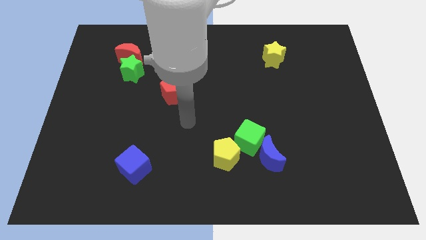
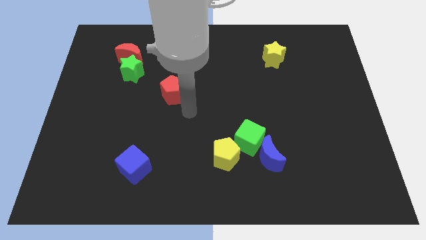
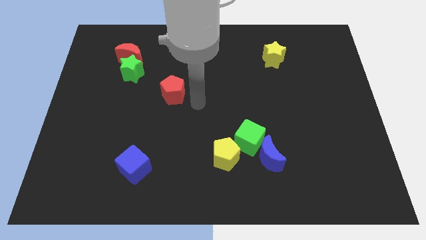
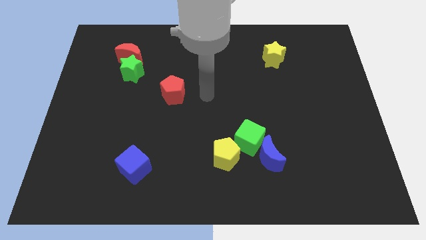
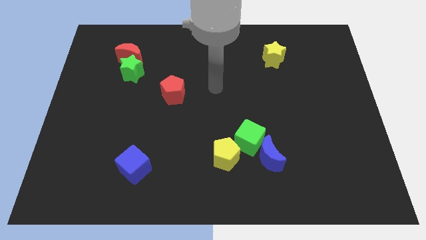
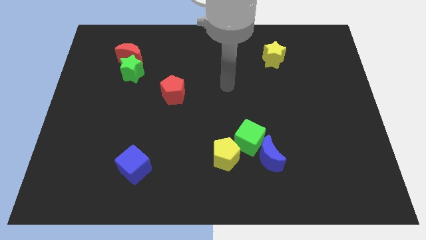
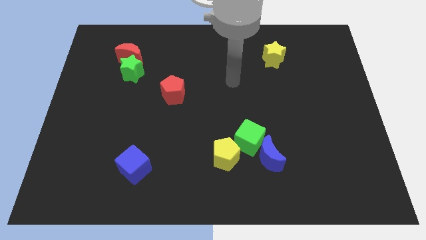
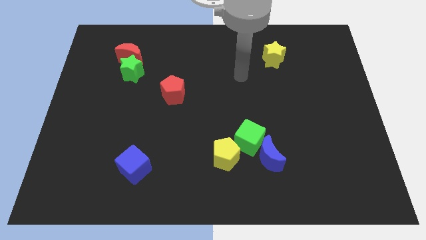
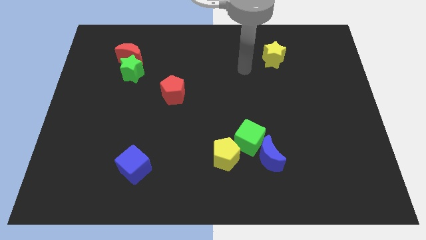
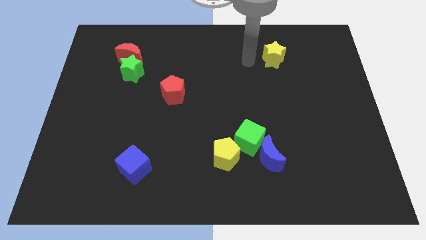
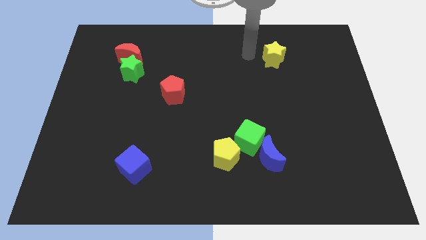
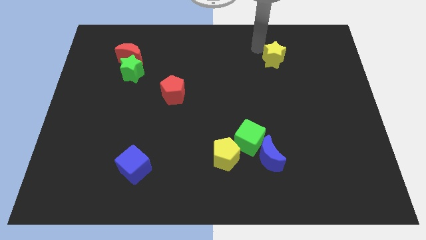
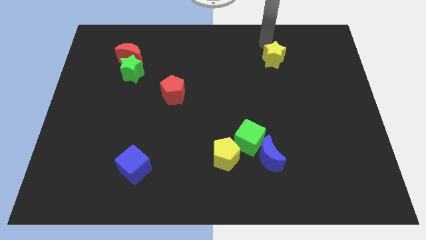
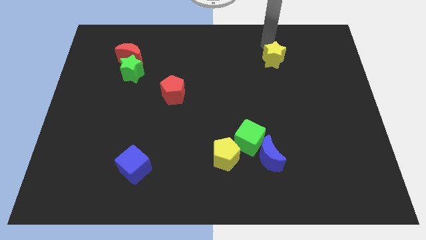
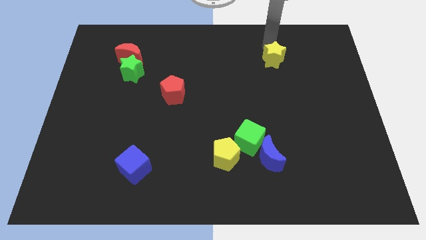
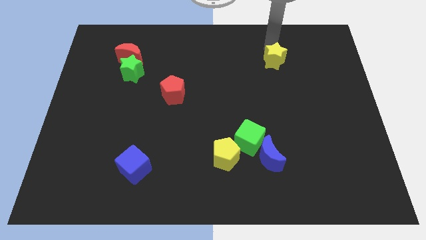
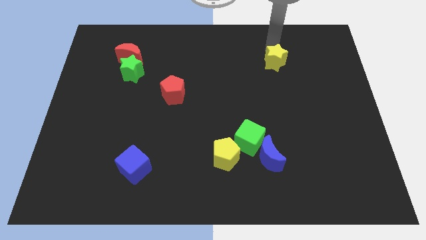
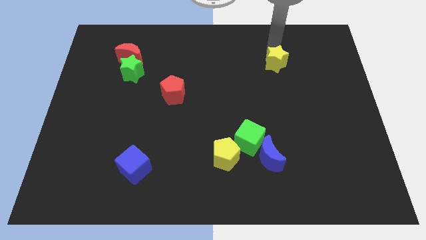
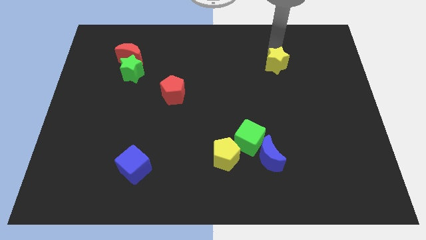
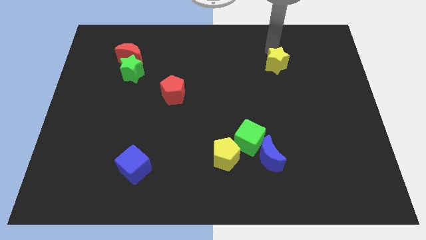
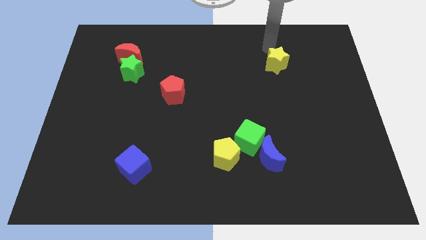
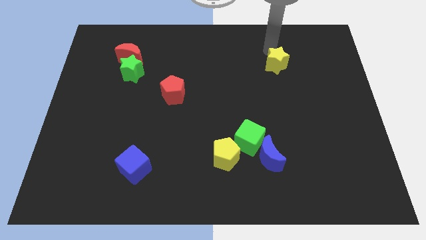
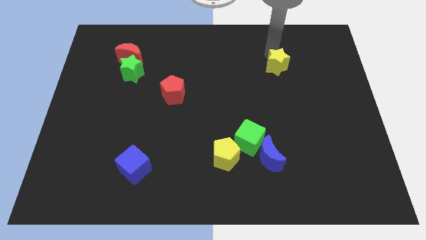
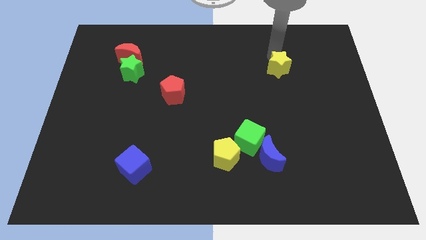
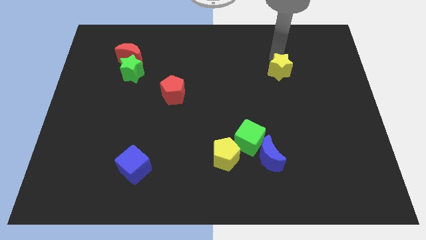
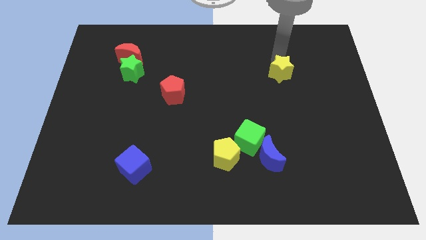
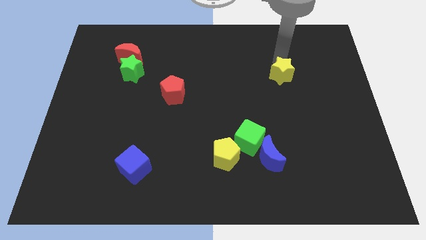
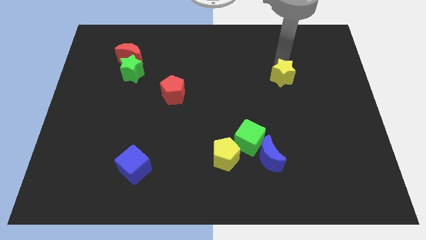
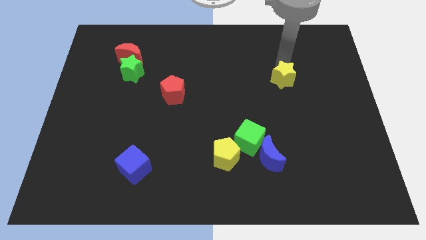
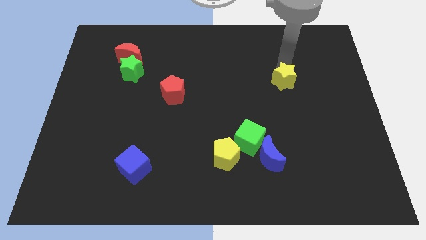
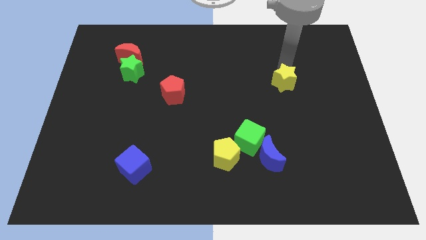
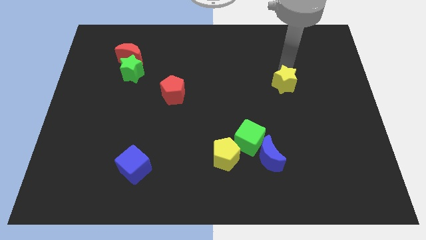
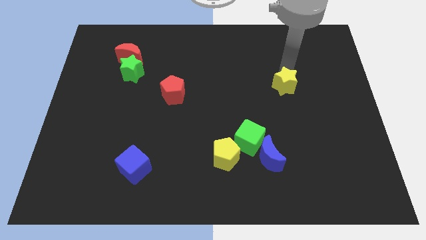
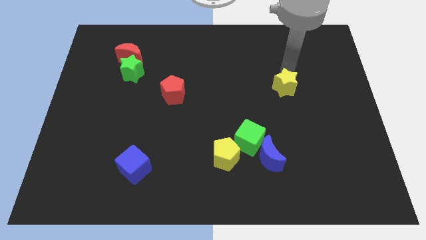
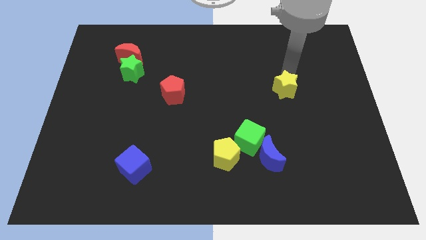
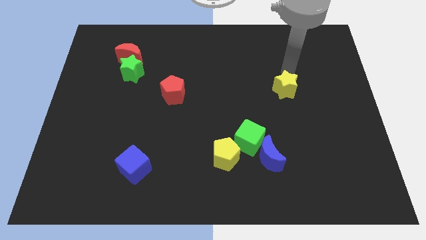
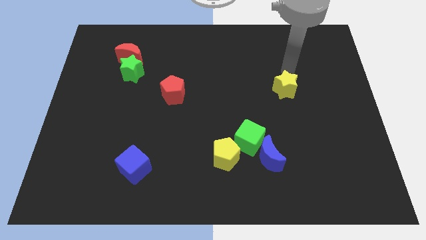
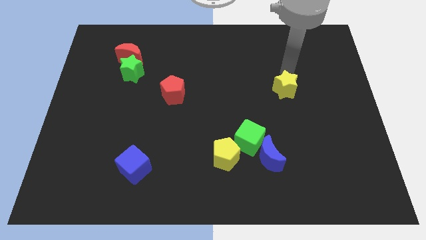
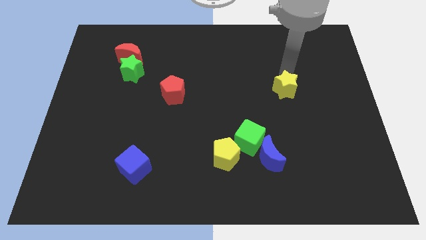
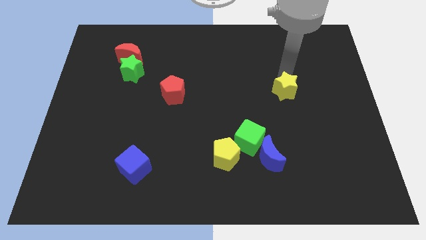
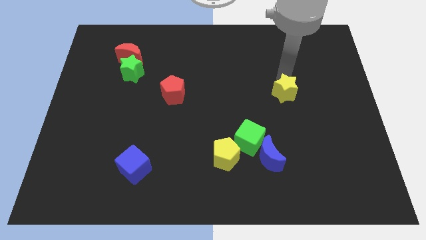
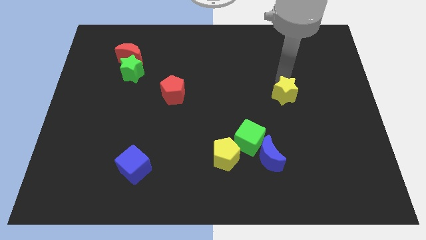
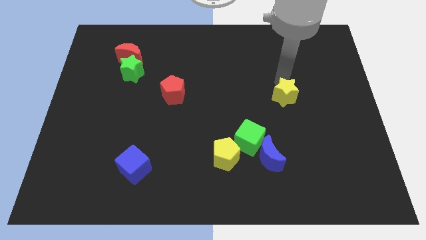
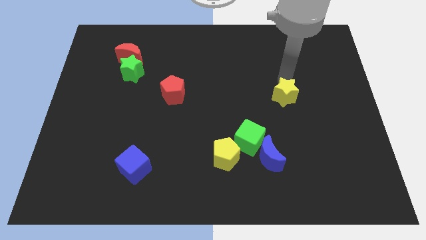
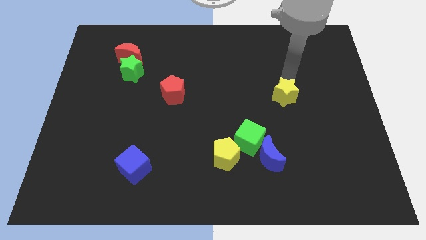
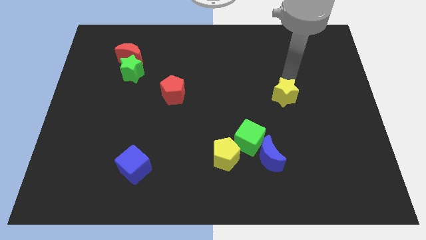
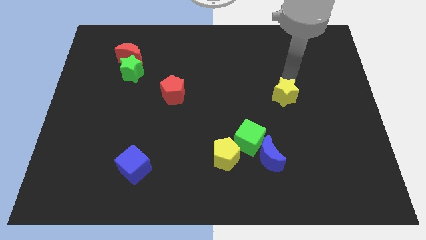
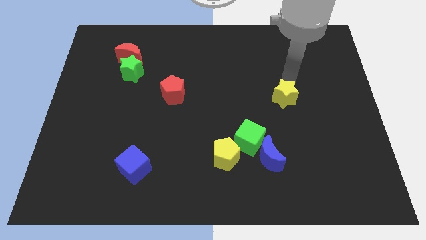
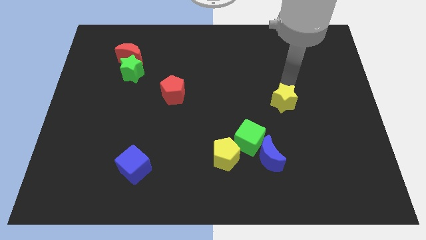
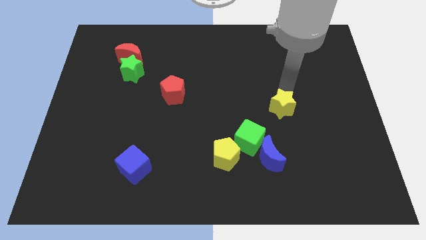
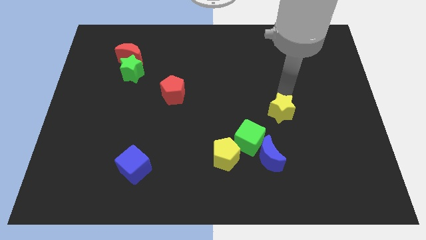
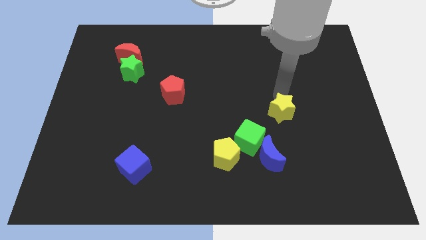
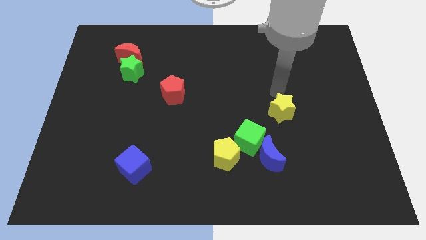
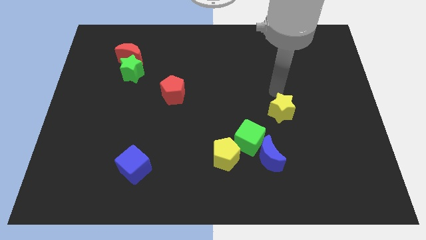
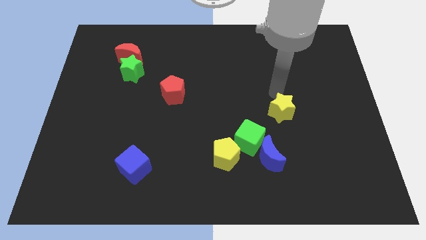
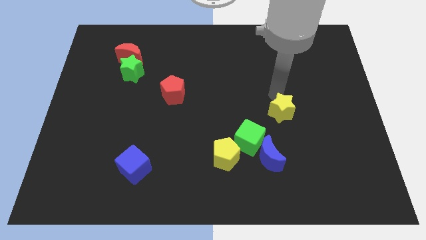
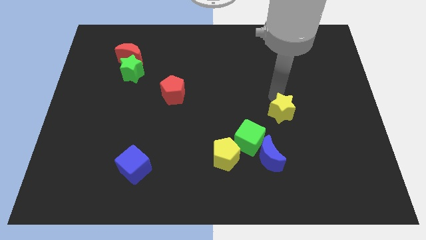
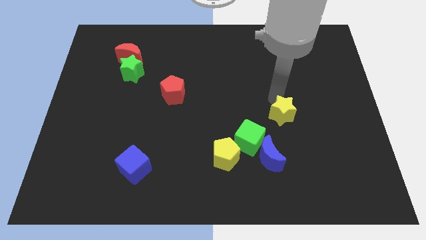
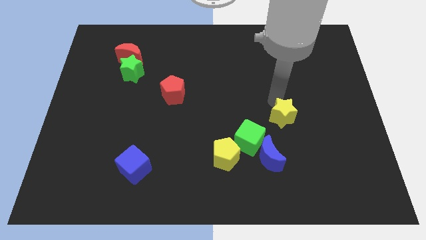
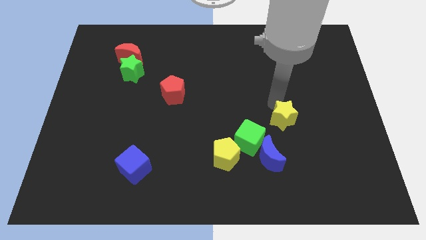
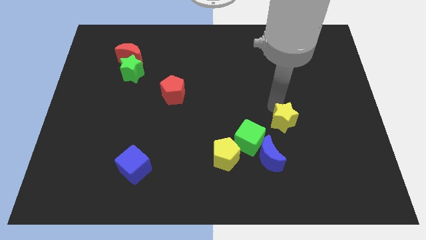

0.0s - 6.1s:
move the yellow star down

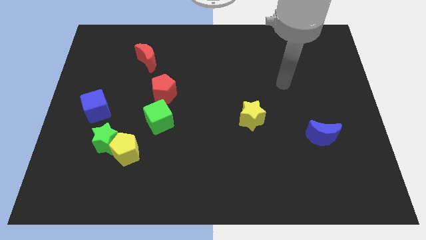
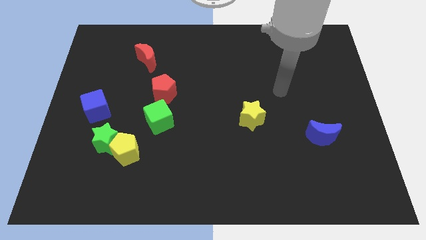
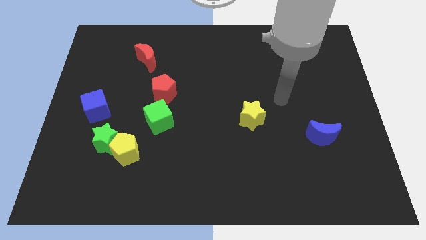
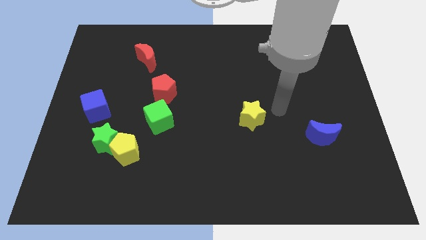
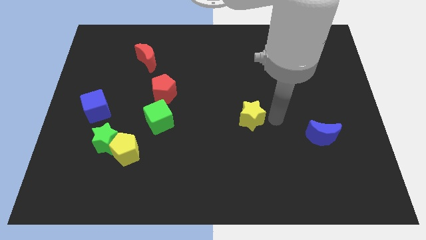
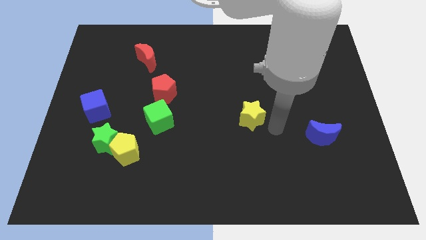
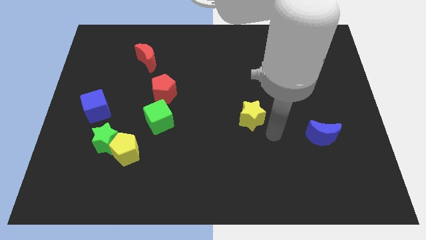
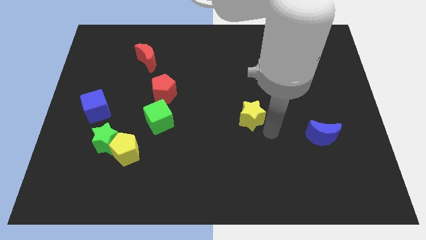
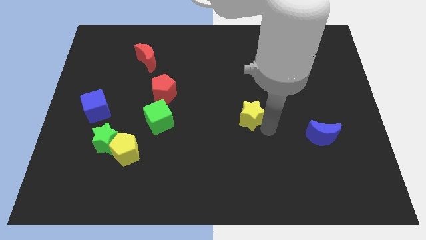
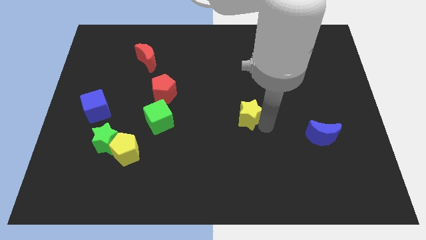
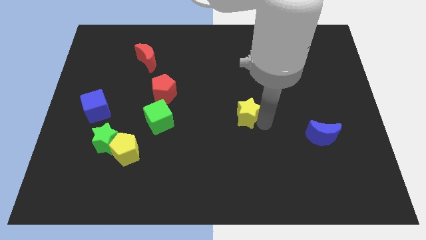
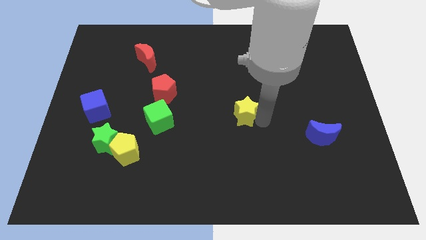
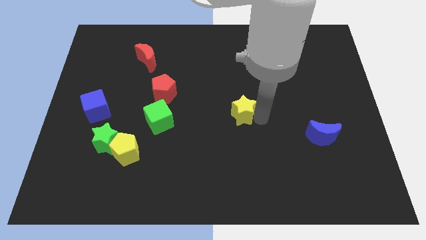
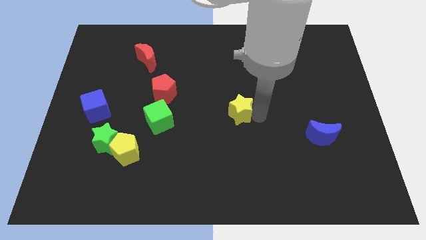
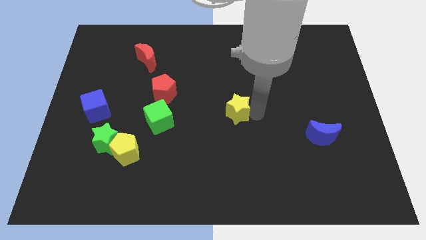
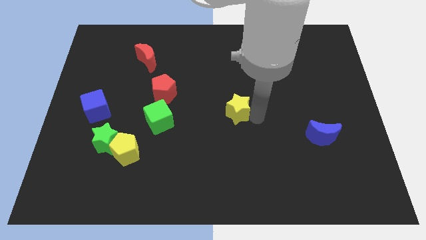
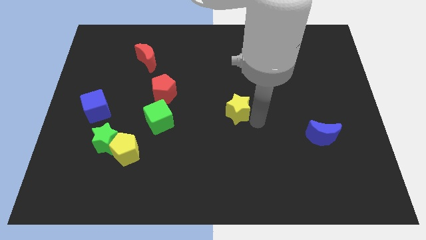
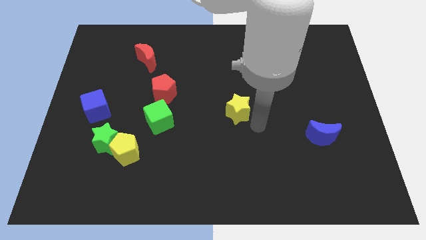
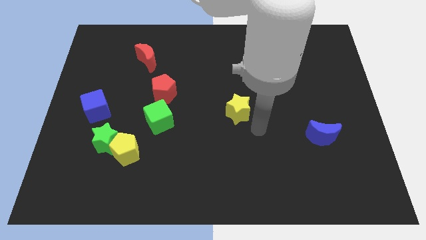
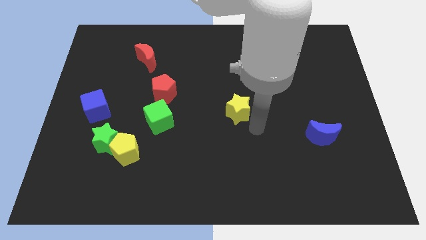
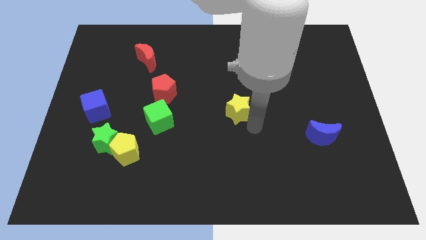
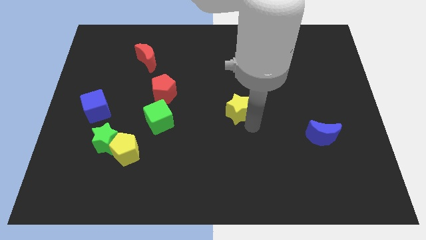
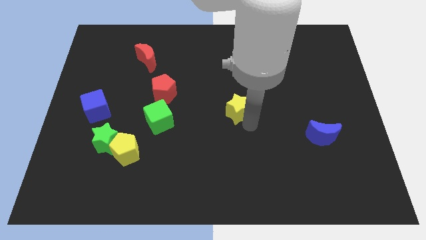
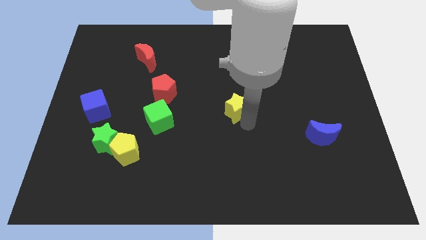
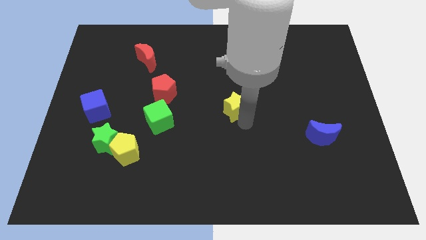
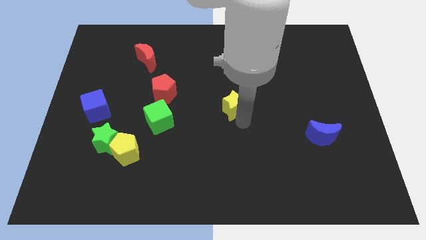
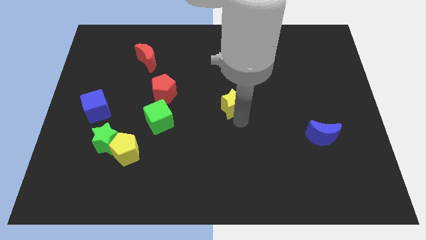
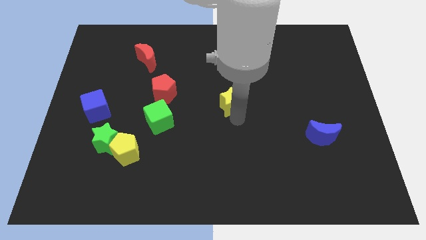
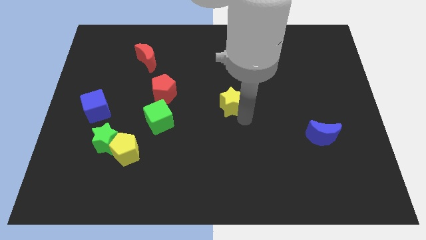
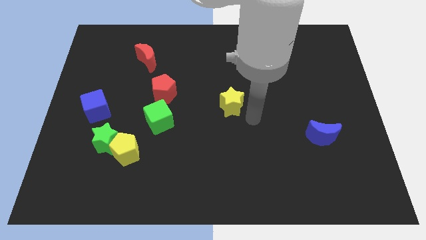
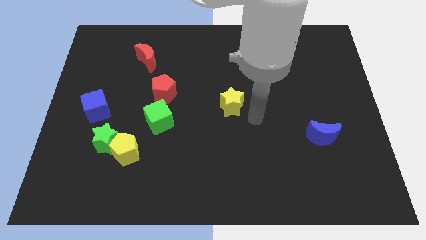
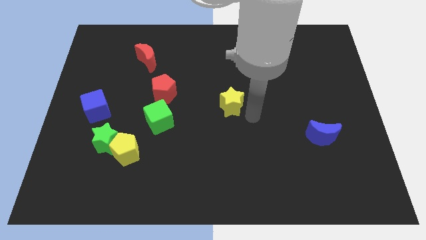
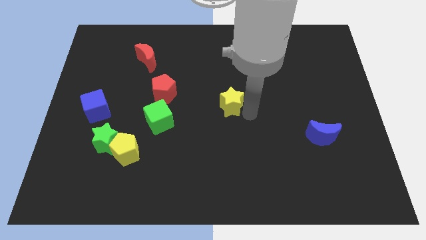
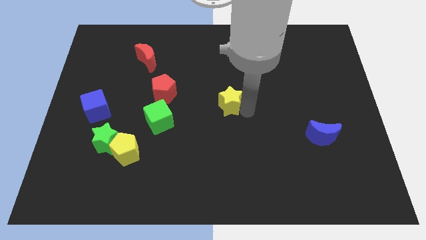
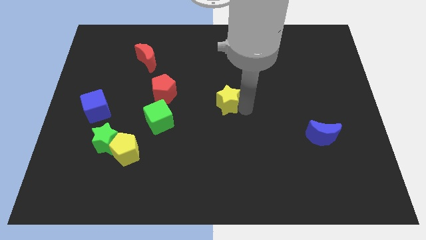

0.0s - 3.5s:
slightly move the yellow star upwards and then to the left
